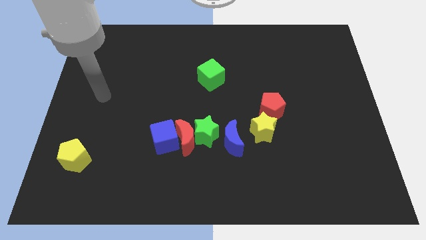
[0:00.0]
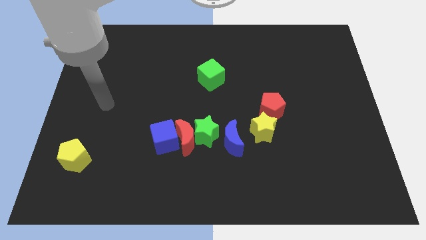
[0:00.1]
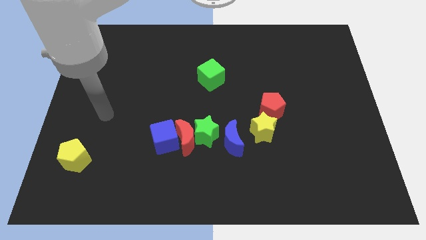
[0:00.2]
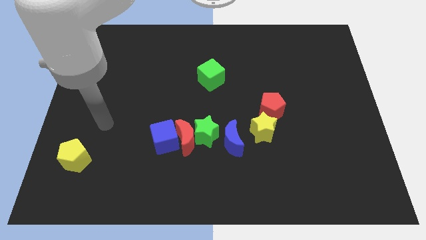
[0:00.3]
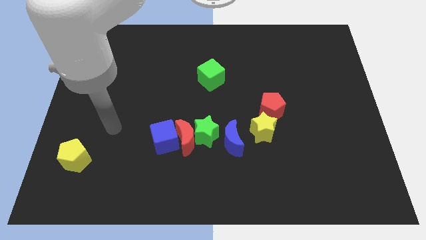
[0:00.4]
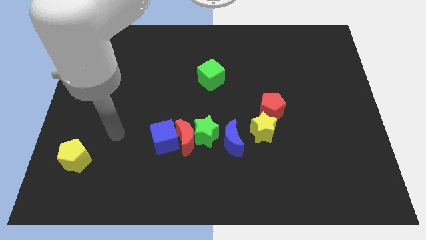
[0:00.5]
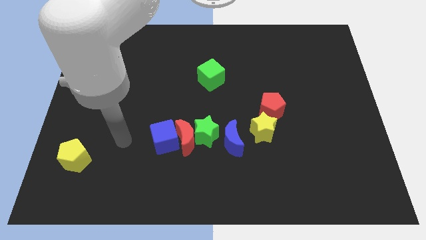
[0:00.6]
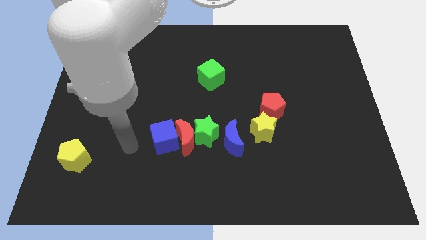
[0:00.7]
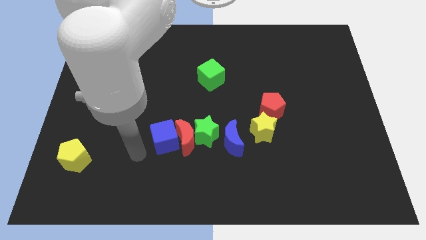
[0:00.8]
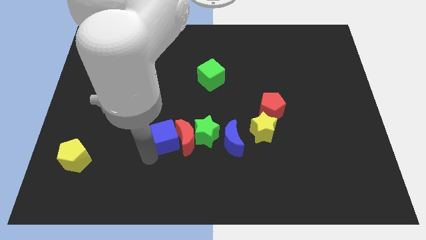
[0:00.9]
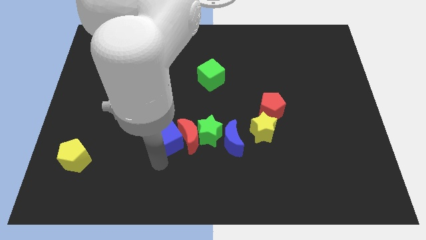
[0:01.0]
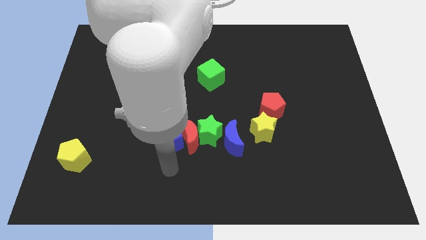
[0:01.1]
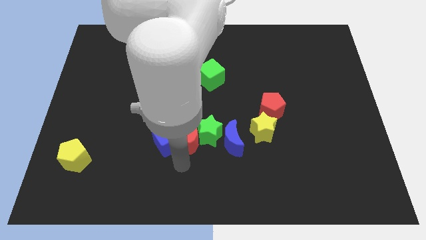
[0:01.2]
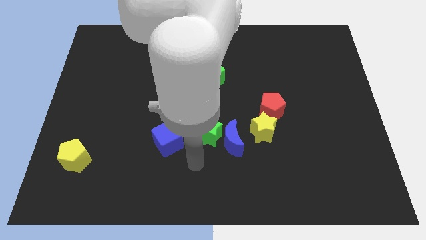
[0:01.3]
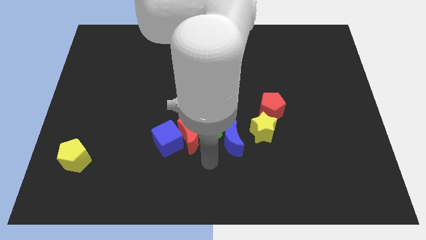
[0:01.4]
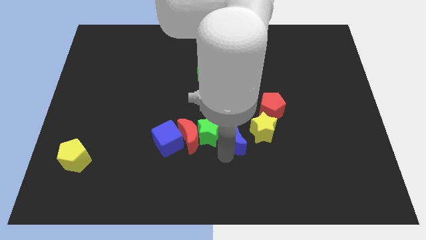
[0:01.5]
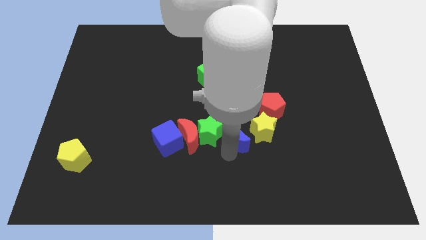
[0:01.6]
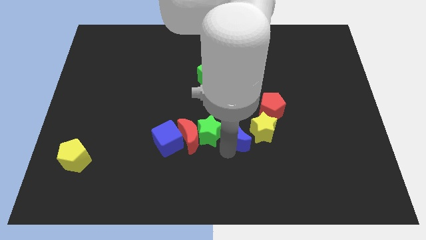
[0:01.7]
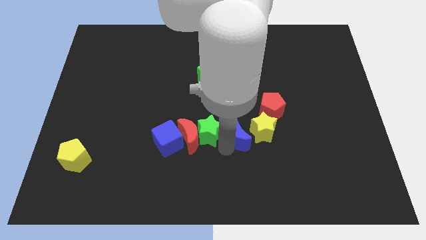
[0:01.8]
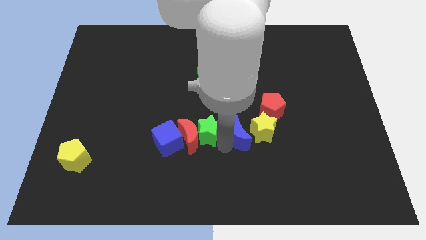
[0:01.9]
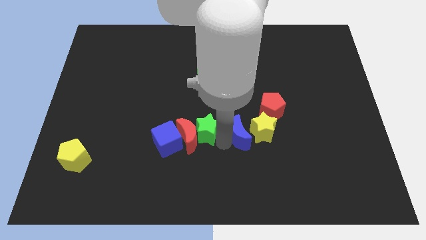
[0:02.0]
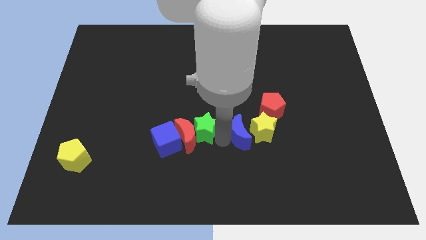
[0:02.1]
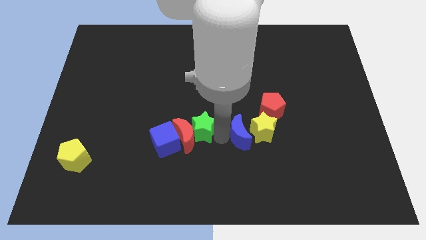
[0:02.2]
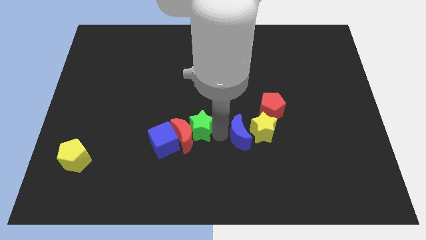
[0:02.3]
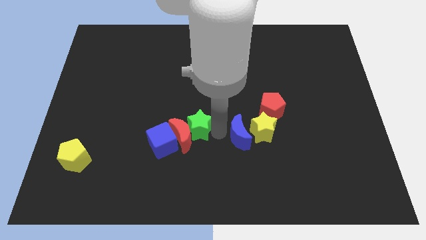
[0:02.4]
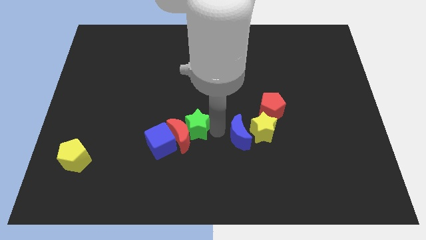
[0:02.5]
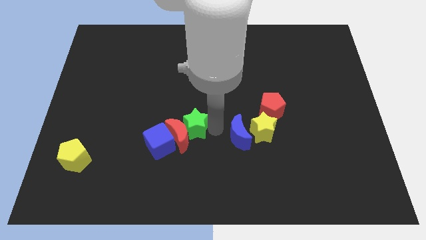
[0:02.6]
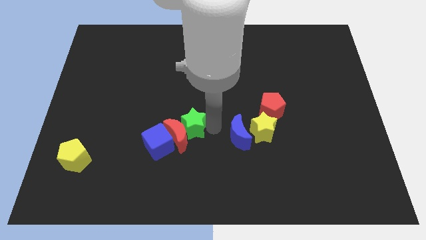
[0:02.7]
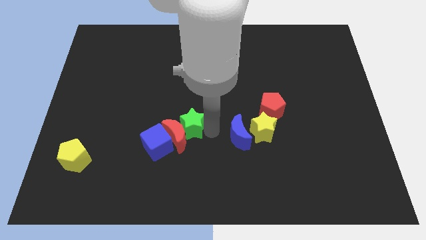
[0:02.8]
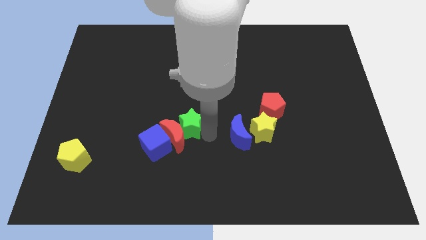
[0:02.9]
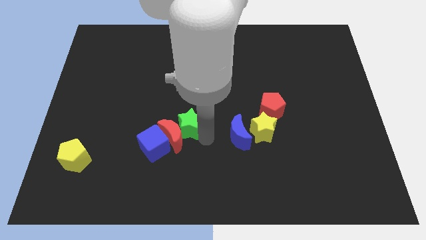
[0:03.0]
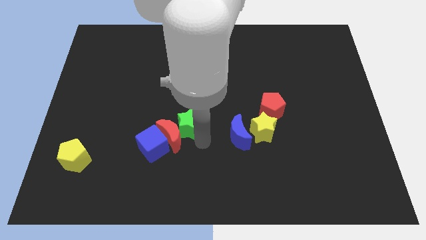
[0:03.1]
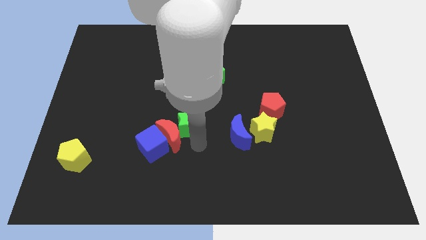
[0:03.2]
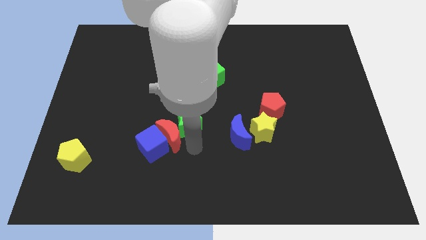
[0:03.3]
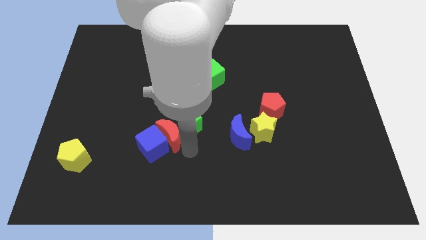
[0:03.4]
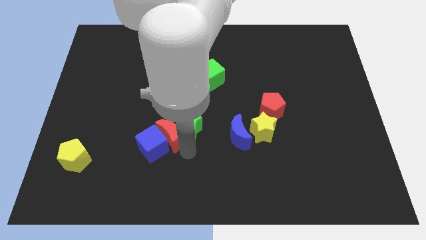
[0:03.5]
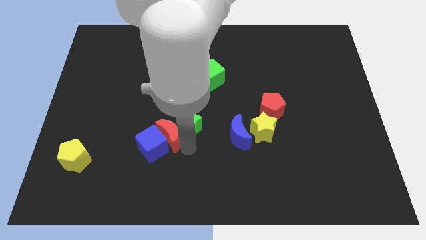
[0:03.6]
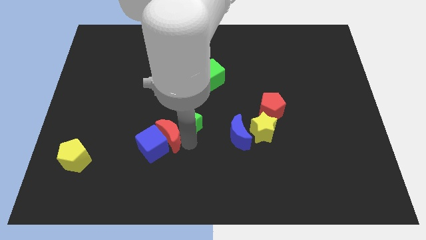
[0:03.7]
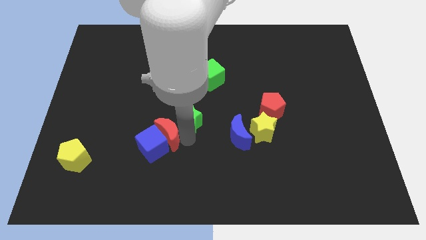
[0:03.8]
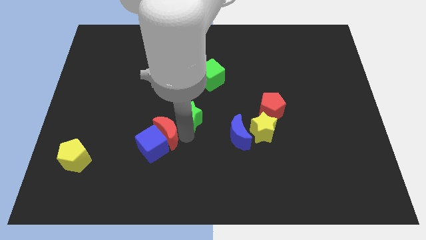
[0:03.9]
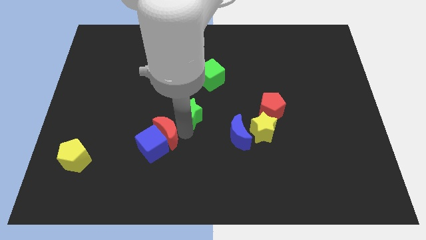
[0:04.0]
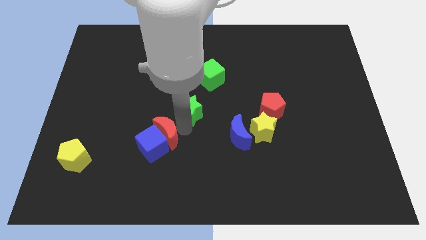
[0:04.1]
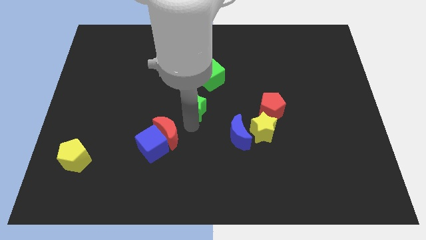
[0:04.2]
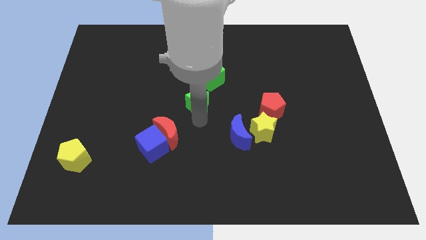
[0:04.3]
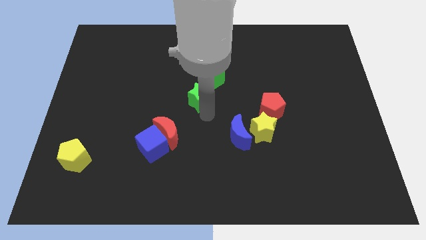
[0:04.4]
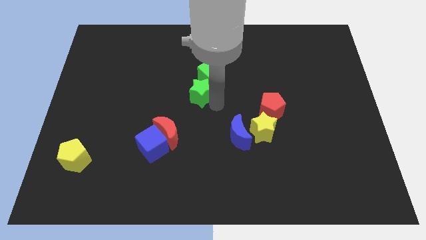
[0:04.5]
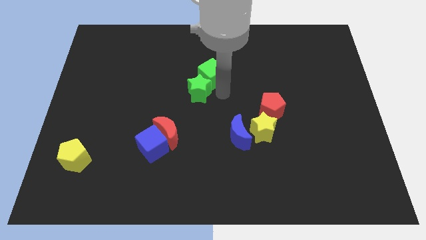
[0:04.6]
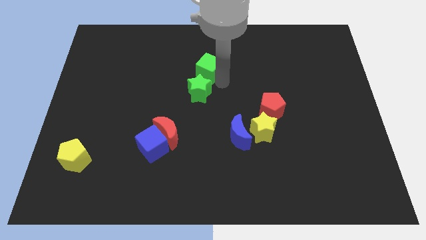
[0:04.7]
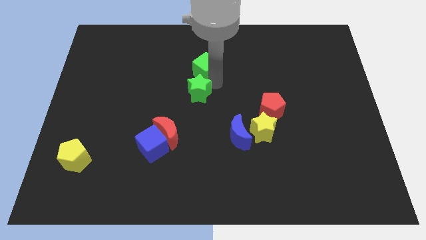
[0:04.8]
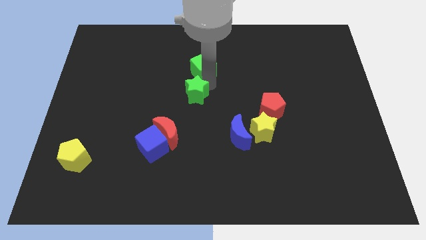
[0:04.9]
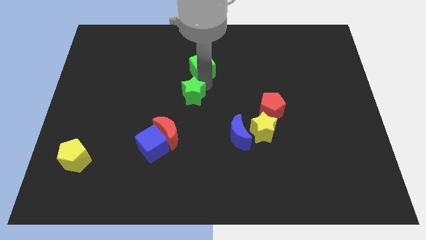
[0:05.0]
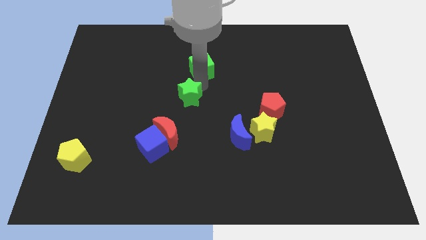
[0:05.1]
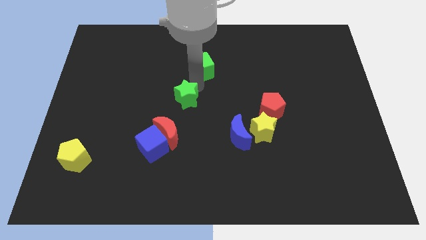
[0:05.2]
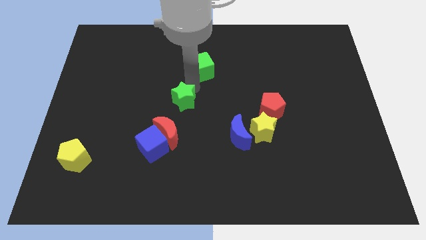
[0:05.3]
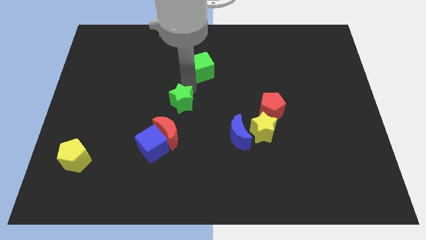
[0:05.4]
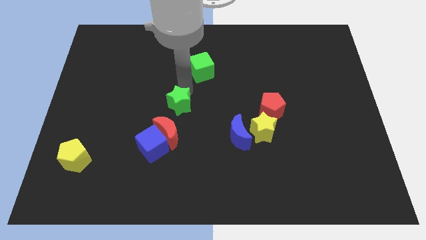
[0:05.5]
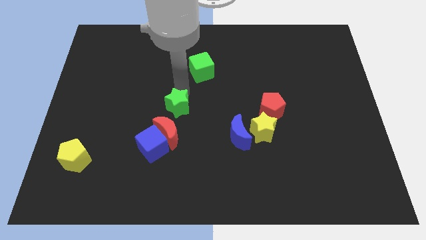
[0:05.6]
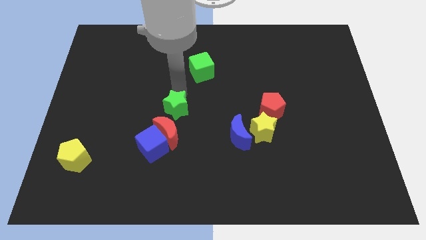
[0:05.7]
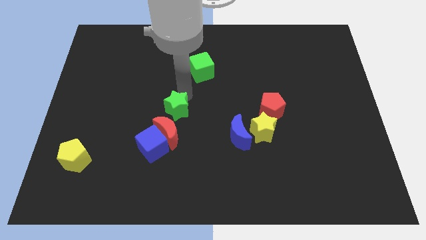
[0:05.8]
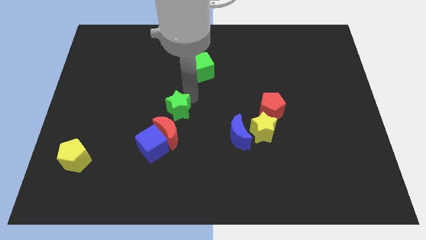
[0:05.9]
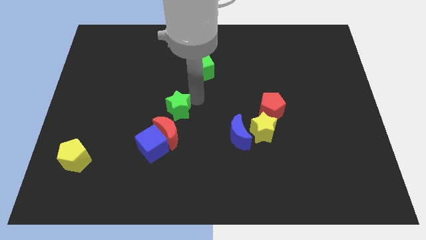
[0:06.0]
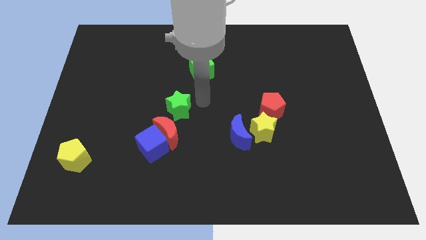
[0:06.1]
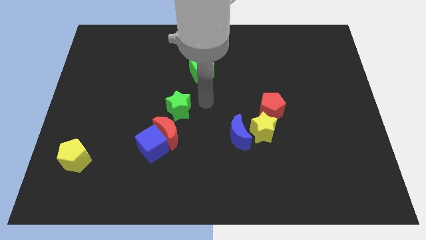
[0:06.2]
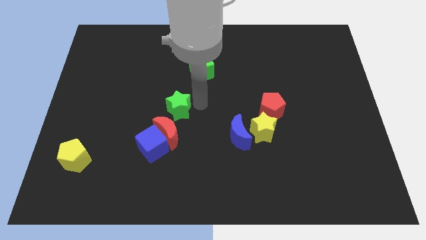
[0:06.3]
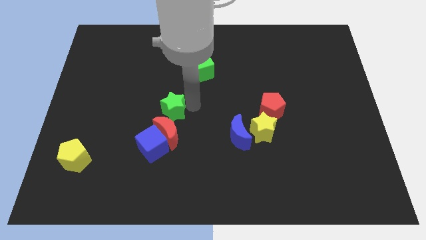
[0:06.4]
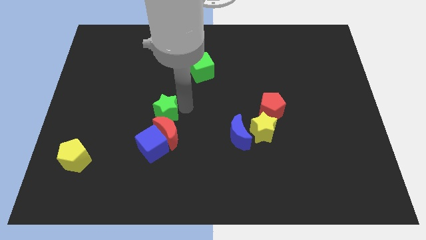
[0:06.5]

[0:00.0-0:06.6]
slide the green star diagonally up and to the left of the red moon
